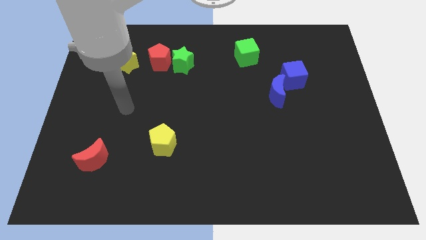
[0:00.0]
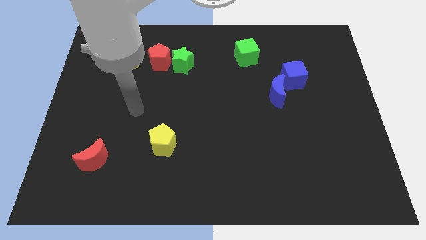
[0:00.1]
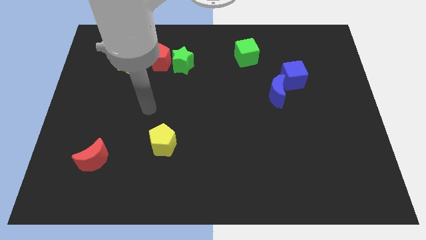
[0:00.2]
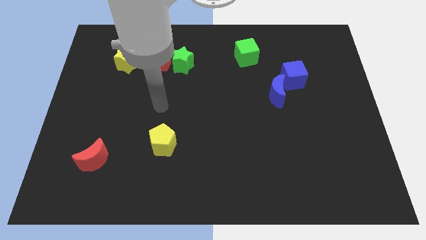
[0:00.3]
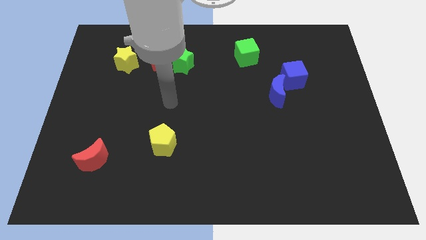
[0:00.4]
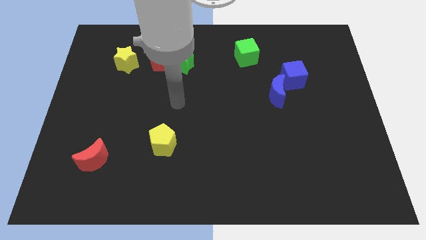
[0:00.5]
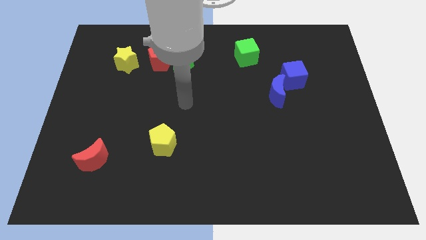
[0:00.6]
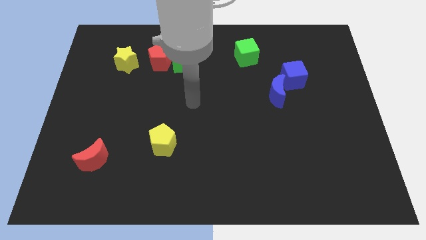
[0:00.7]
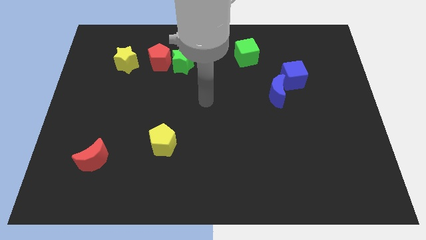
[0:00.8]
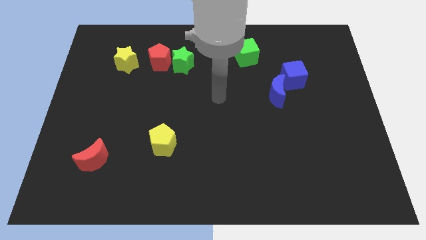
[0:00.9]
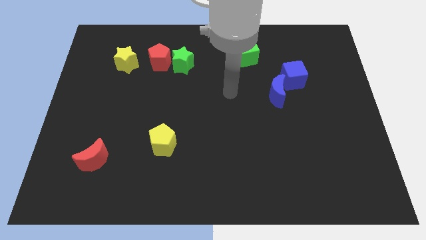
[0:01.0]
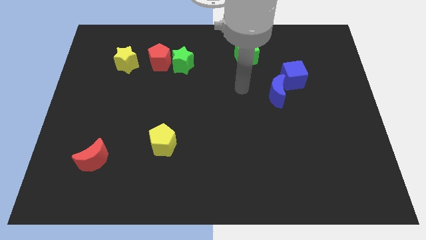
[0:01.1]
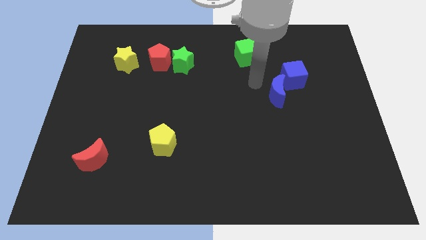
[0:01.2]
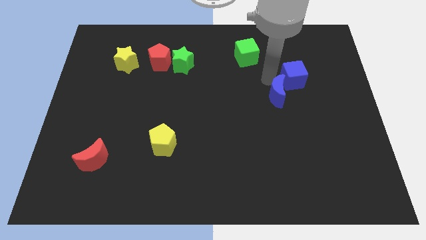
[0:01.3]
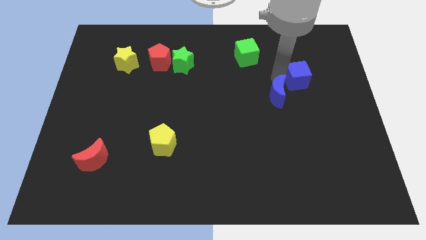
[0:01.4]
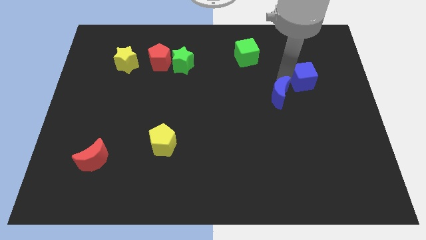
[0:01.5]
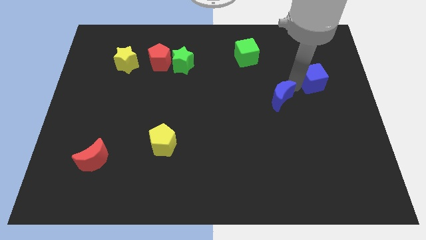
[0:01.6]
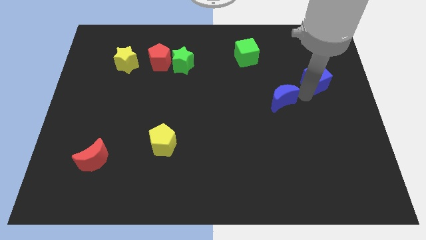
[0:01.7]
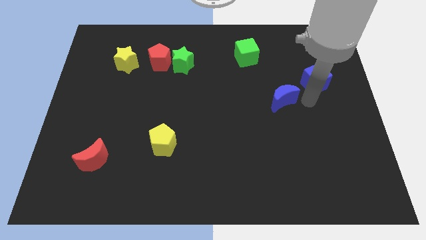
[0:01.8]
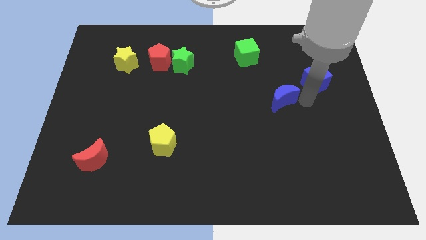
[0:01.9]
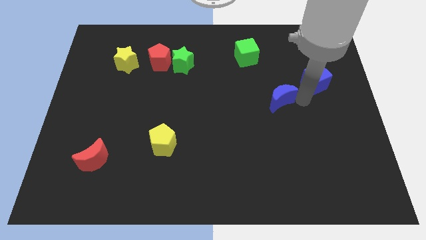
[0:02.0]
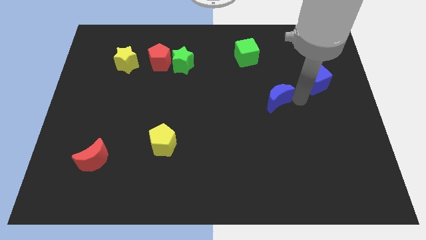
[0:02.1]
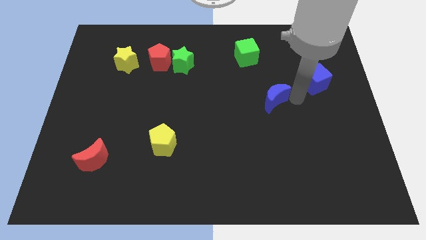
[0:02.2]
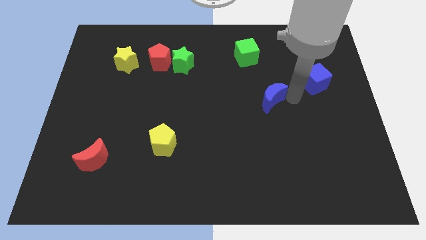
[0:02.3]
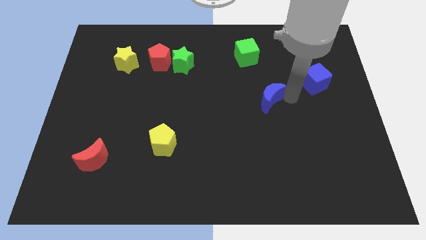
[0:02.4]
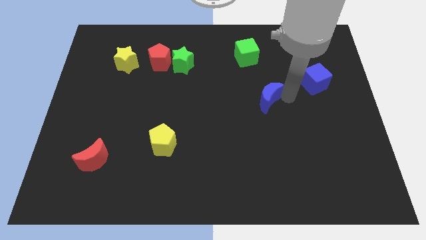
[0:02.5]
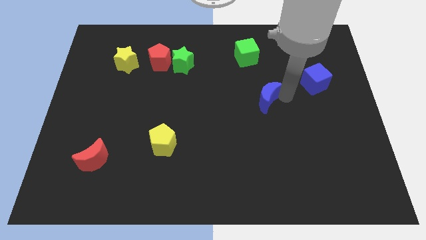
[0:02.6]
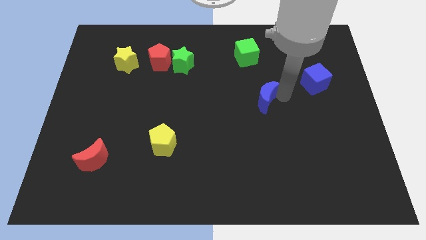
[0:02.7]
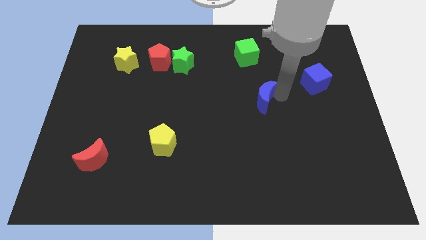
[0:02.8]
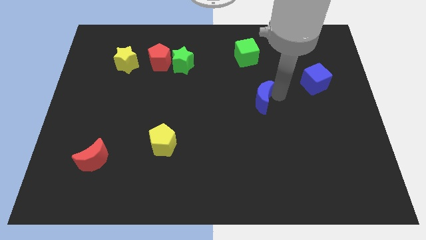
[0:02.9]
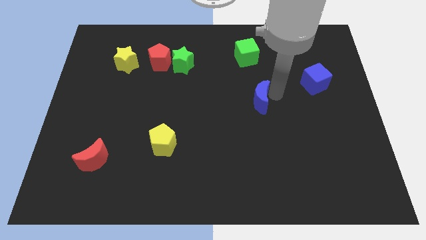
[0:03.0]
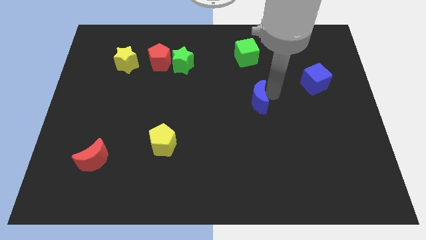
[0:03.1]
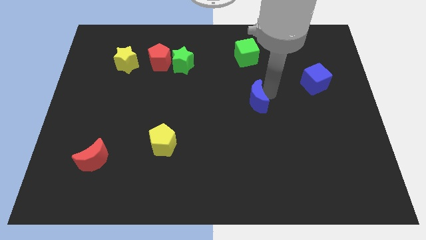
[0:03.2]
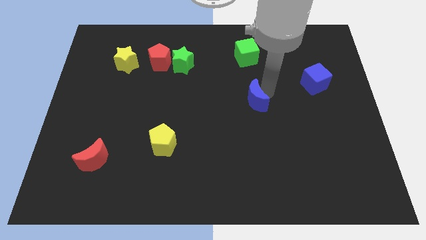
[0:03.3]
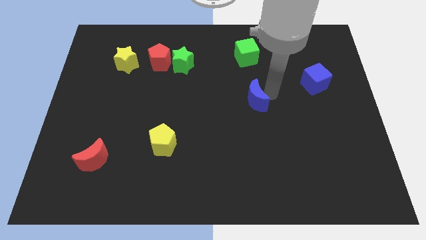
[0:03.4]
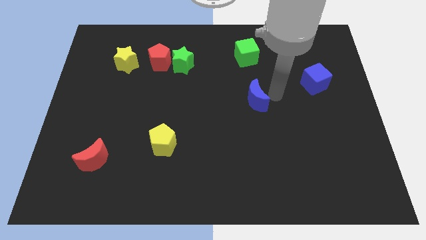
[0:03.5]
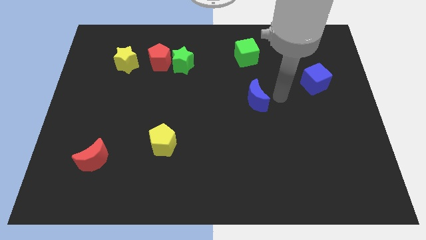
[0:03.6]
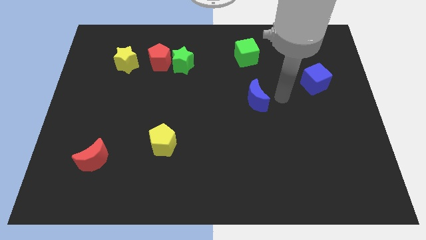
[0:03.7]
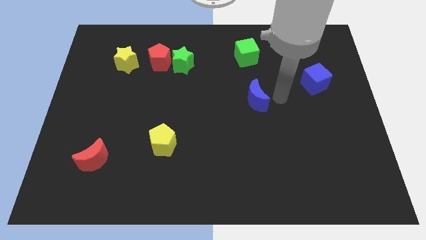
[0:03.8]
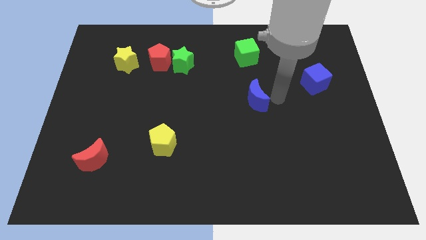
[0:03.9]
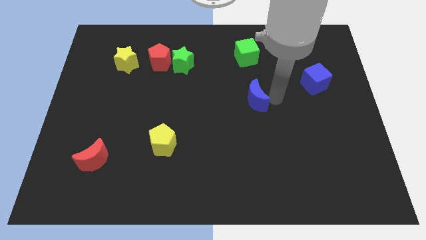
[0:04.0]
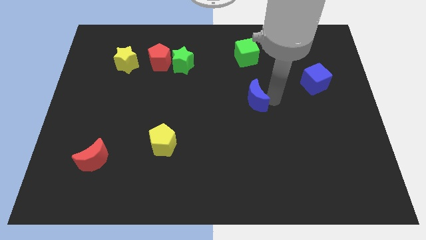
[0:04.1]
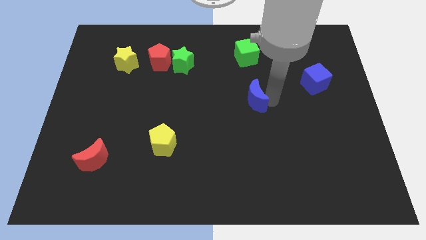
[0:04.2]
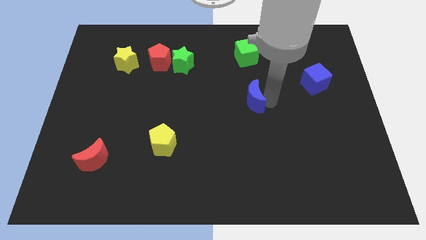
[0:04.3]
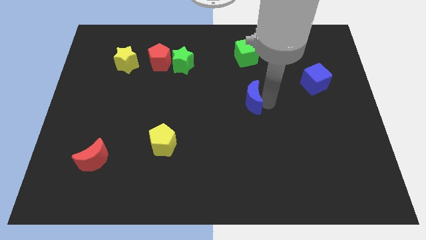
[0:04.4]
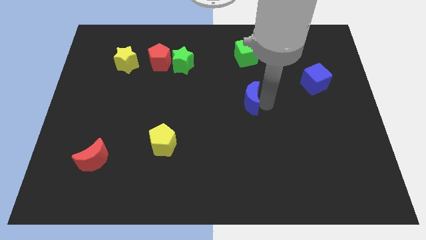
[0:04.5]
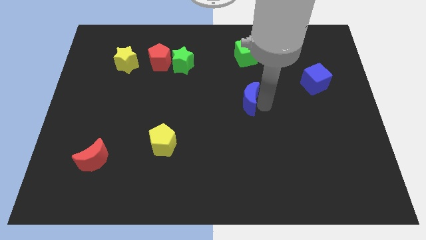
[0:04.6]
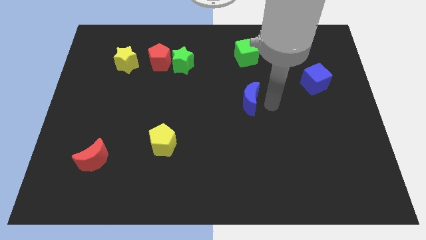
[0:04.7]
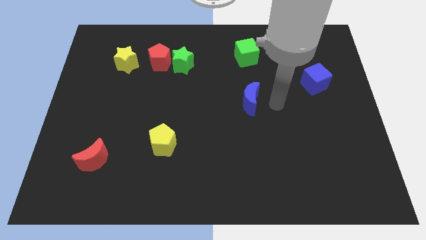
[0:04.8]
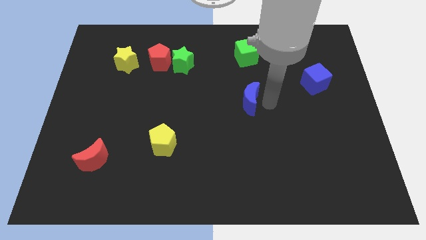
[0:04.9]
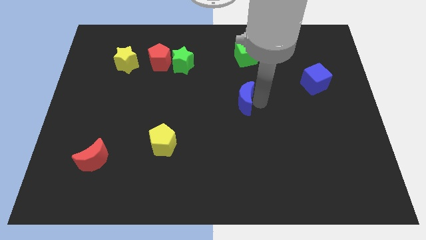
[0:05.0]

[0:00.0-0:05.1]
slightly slide the blue moon to the left

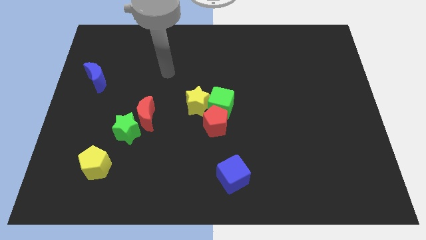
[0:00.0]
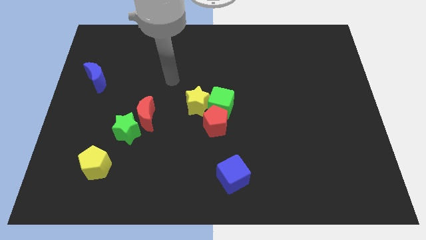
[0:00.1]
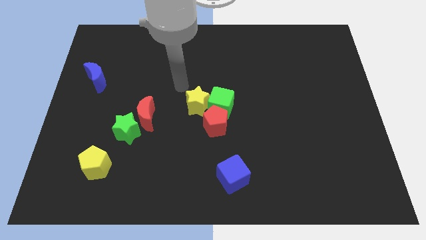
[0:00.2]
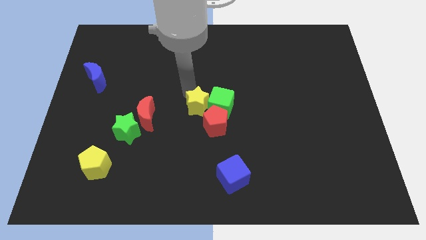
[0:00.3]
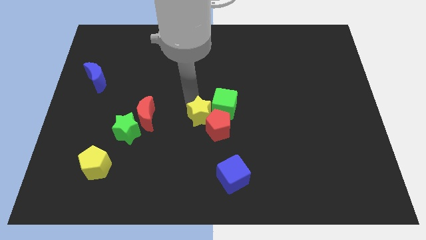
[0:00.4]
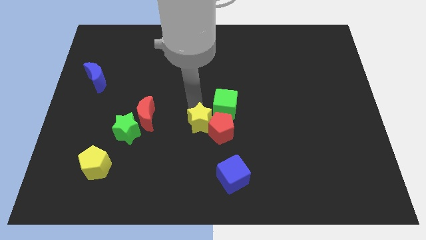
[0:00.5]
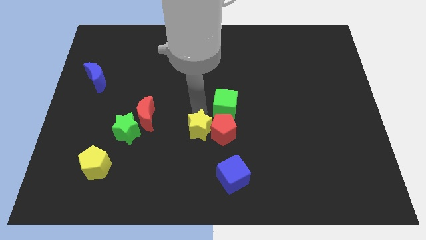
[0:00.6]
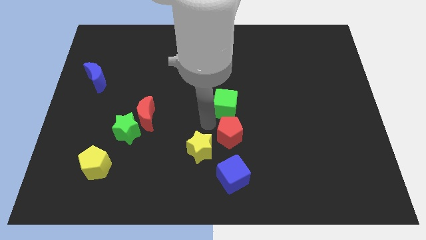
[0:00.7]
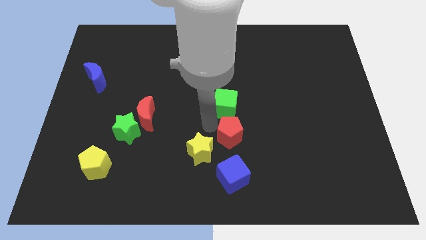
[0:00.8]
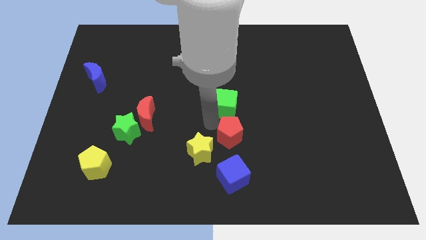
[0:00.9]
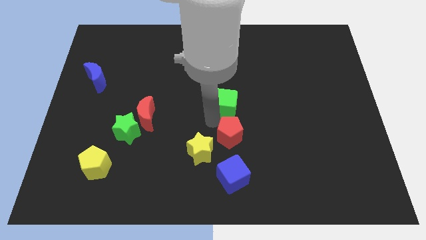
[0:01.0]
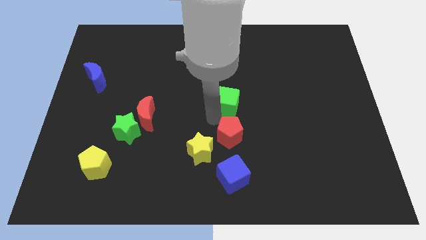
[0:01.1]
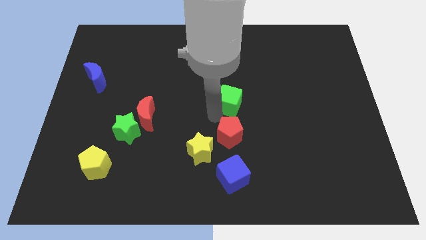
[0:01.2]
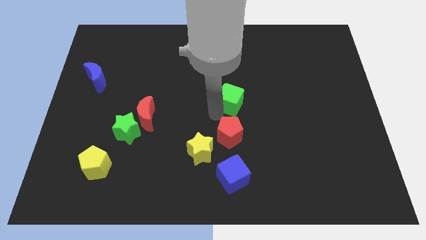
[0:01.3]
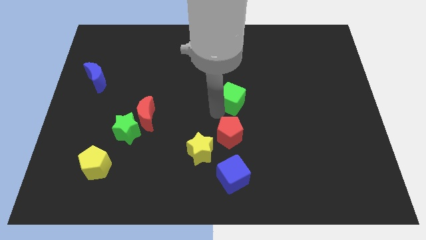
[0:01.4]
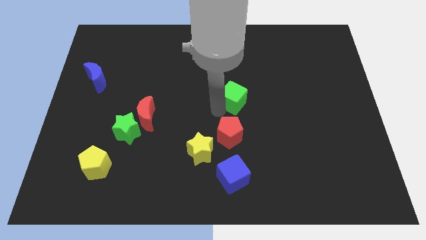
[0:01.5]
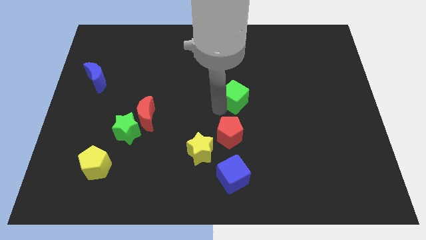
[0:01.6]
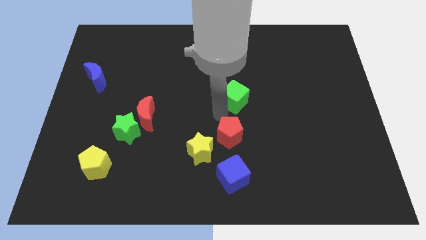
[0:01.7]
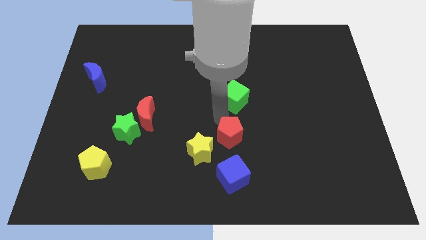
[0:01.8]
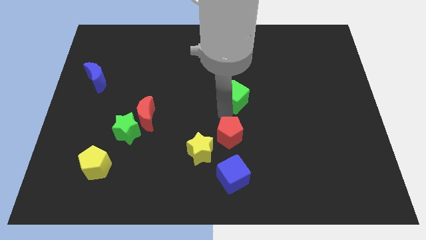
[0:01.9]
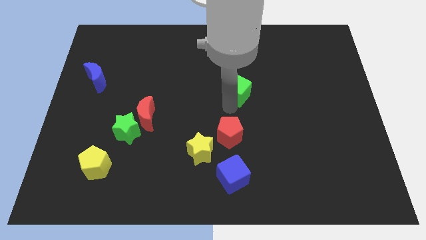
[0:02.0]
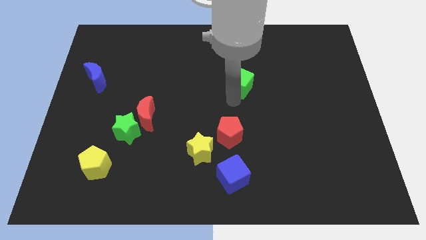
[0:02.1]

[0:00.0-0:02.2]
push the green cube diagonally upwards and to the right a bit

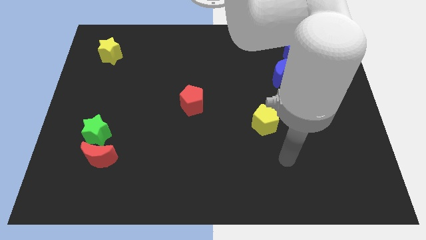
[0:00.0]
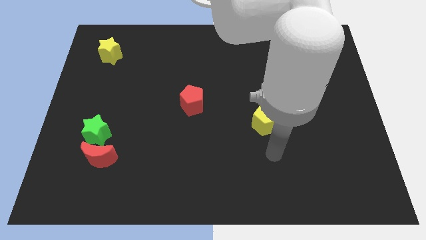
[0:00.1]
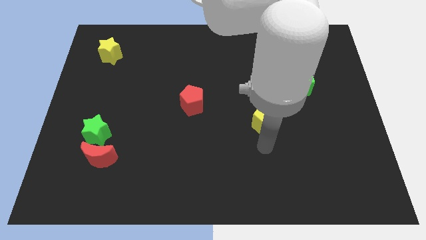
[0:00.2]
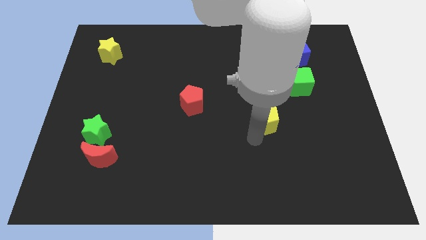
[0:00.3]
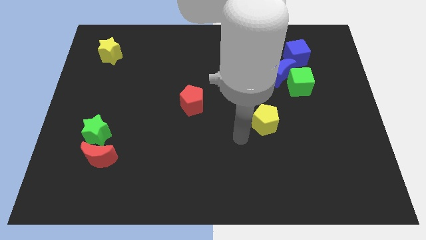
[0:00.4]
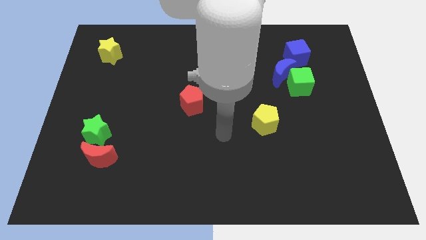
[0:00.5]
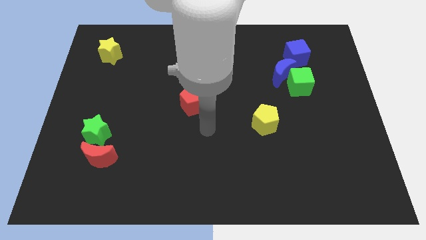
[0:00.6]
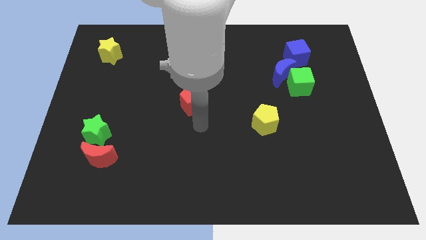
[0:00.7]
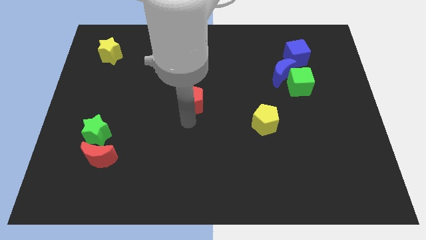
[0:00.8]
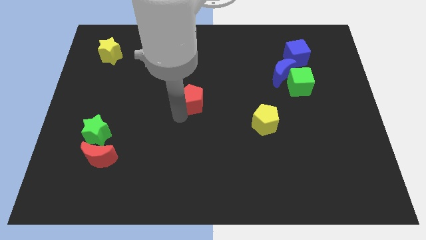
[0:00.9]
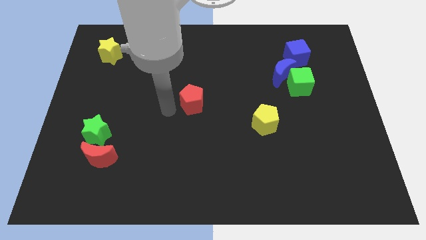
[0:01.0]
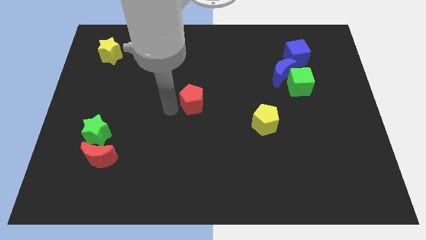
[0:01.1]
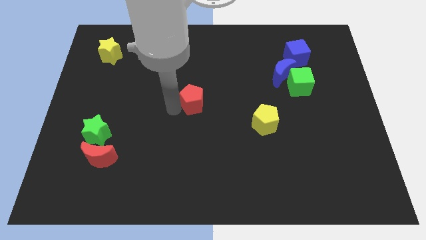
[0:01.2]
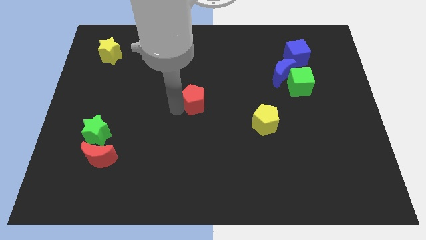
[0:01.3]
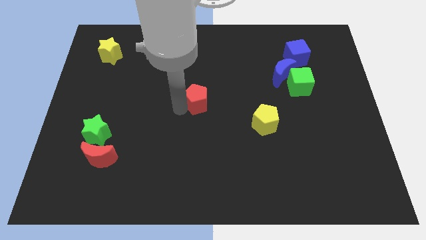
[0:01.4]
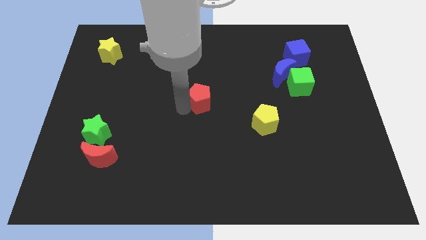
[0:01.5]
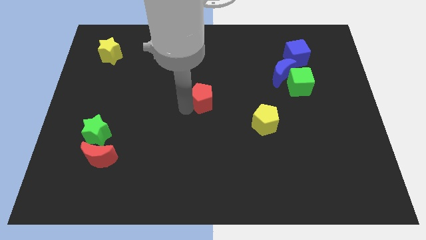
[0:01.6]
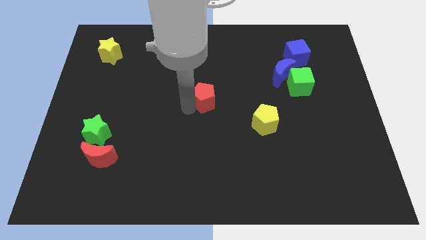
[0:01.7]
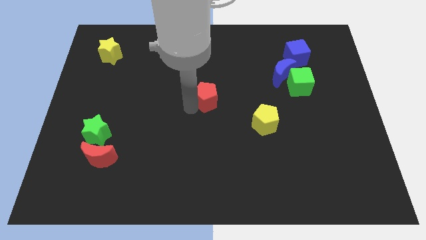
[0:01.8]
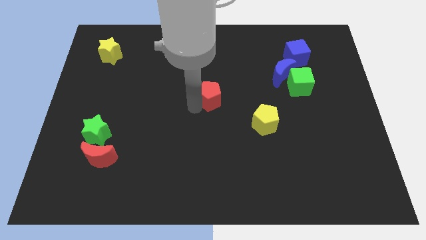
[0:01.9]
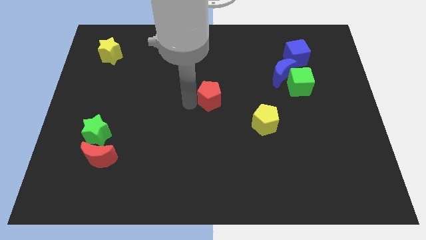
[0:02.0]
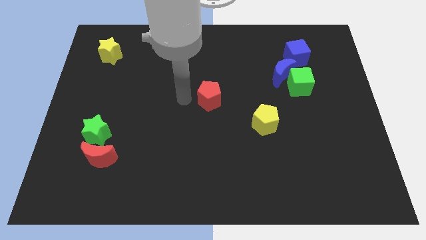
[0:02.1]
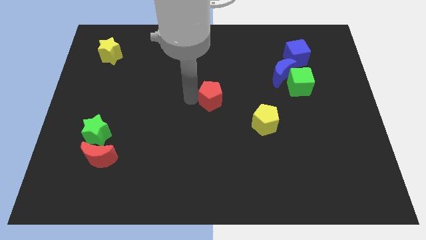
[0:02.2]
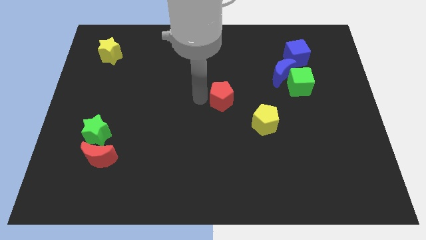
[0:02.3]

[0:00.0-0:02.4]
move the red pentagon a little to the right
